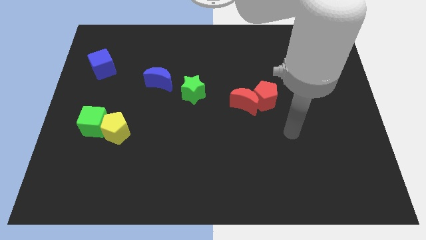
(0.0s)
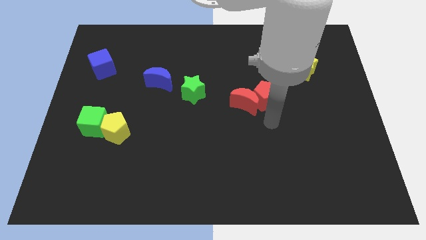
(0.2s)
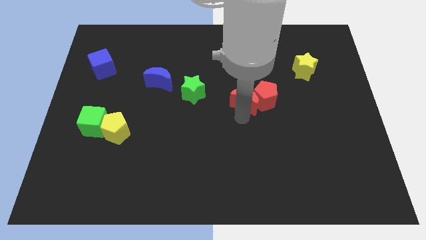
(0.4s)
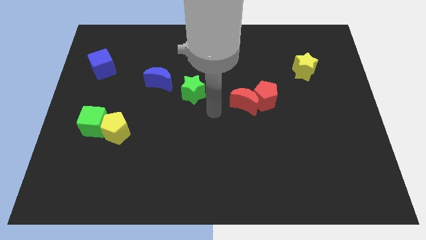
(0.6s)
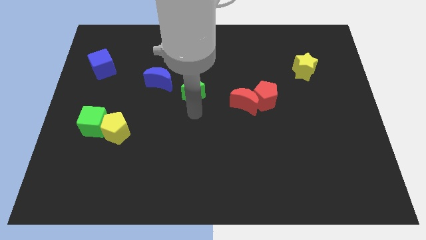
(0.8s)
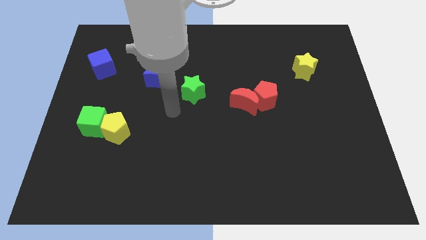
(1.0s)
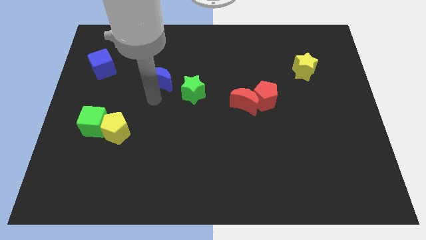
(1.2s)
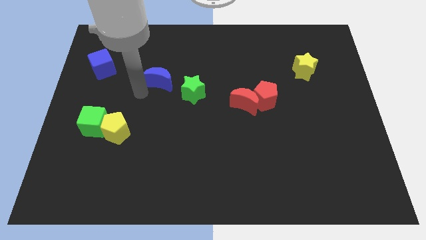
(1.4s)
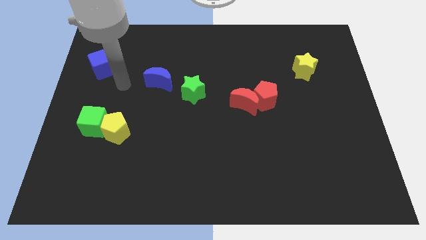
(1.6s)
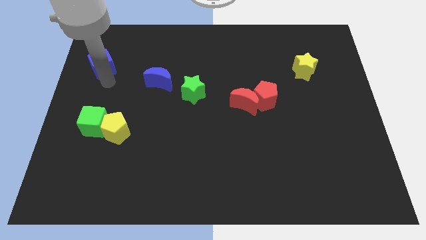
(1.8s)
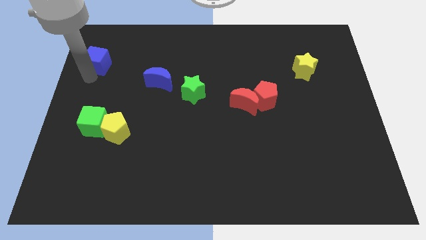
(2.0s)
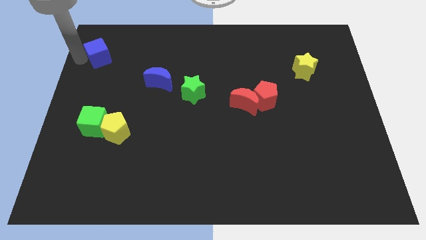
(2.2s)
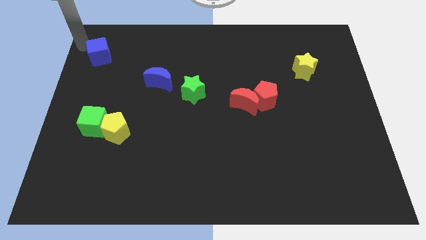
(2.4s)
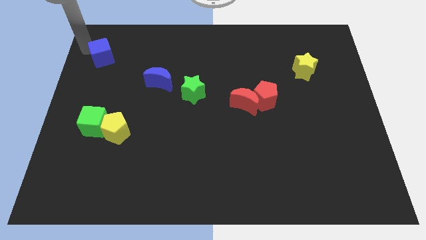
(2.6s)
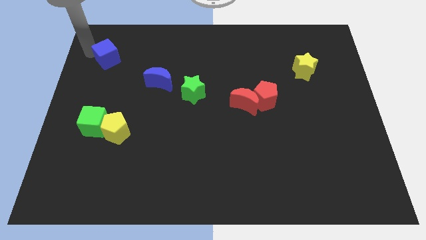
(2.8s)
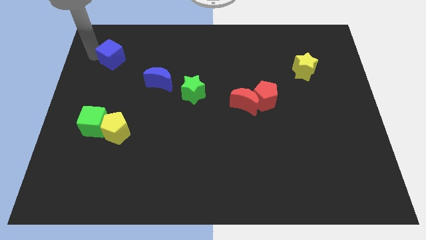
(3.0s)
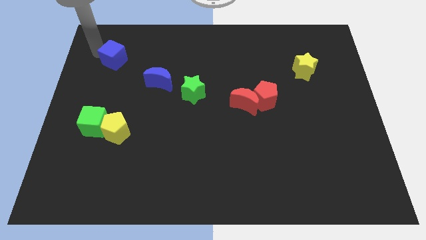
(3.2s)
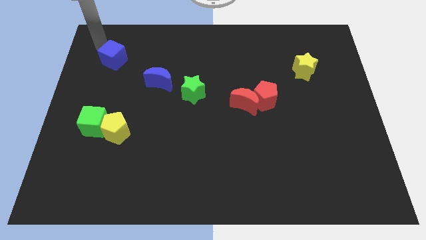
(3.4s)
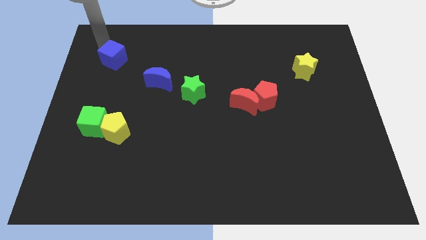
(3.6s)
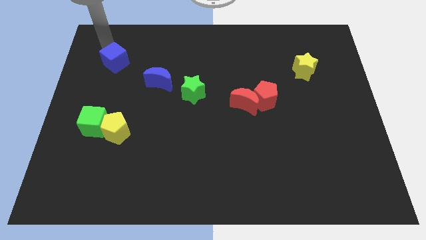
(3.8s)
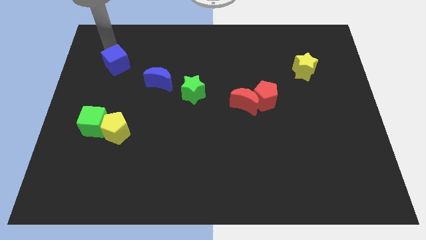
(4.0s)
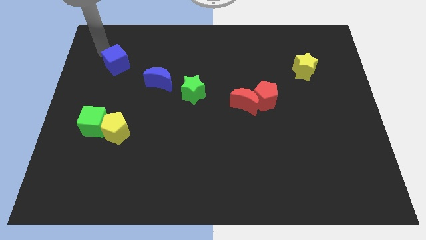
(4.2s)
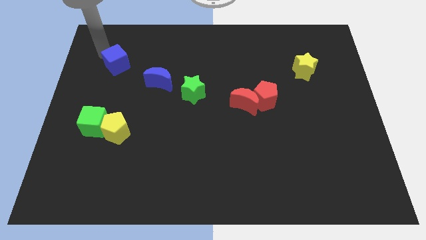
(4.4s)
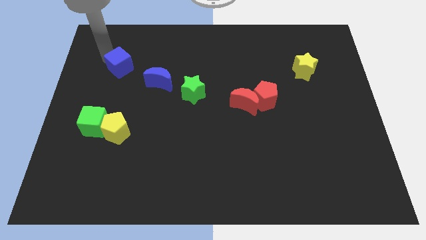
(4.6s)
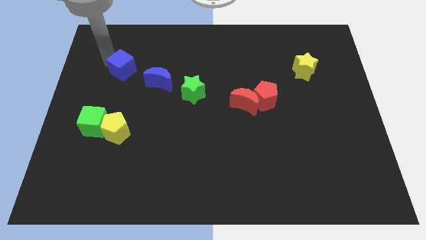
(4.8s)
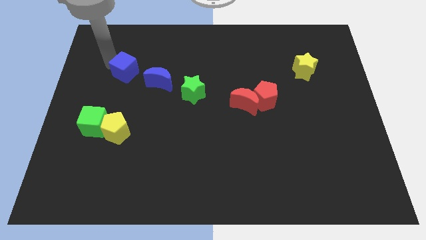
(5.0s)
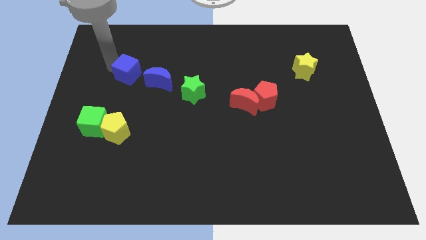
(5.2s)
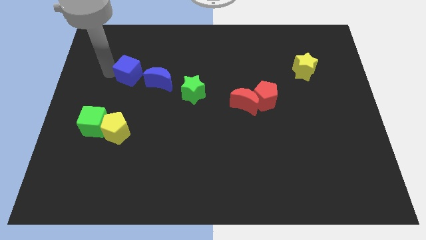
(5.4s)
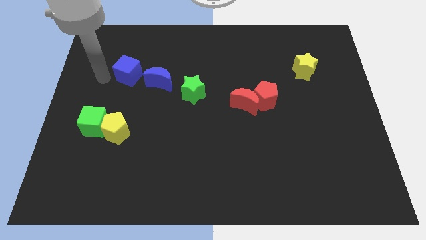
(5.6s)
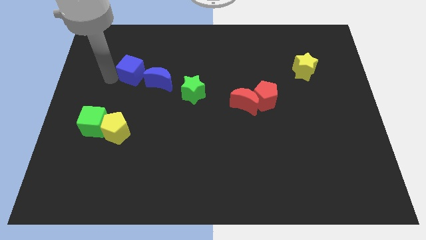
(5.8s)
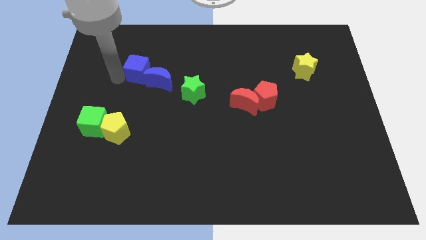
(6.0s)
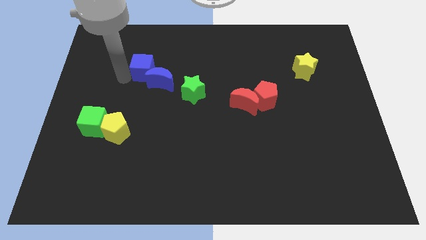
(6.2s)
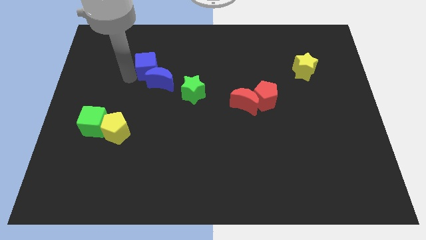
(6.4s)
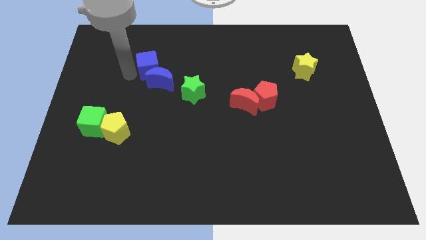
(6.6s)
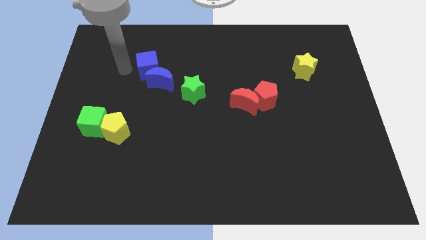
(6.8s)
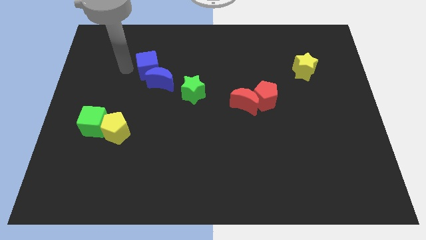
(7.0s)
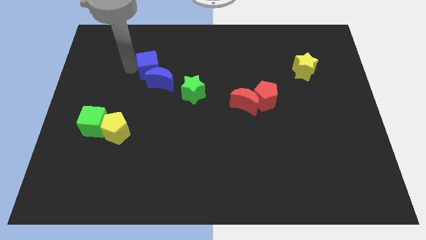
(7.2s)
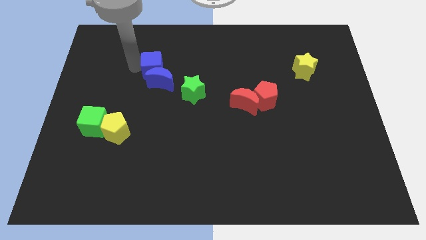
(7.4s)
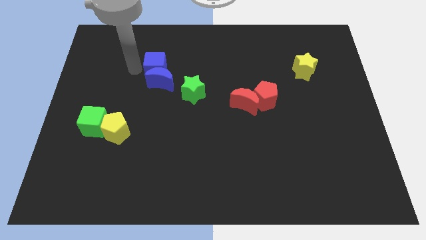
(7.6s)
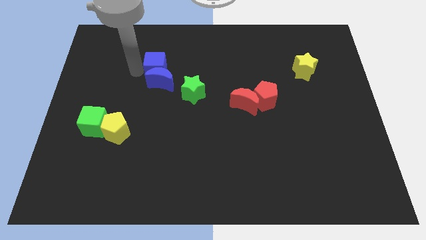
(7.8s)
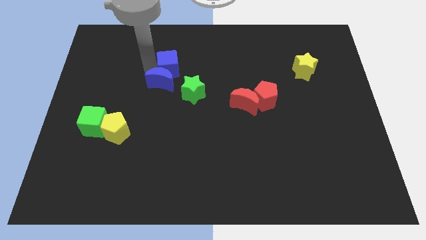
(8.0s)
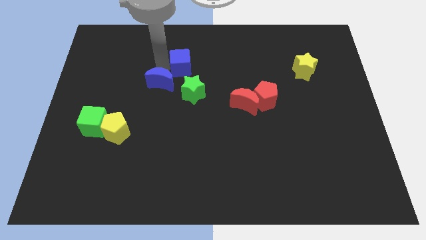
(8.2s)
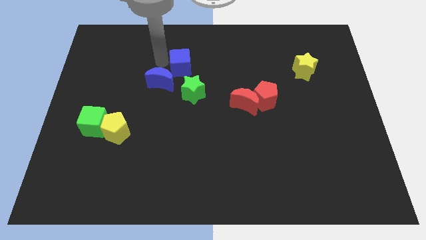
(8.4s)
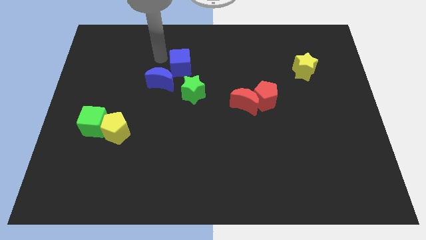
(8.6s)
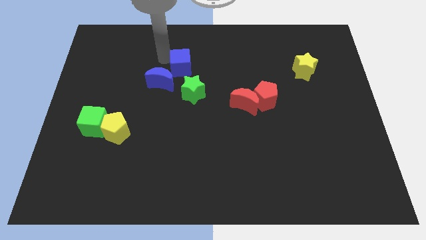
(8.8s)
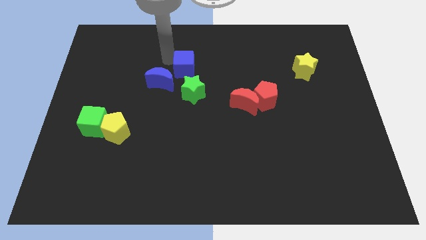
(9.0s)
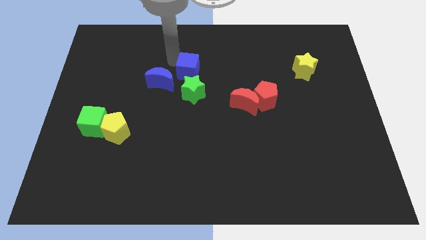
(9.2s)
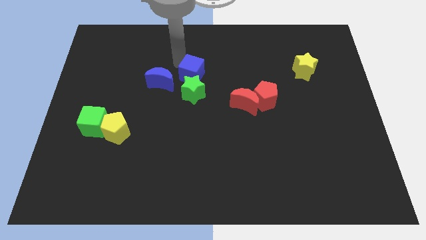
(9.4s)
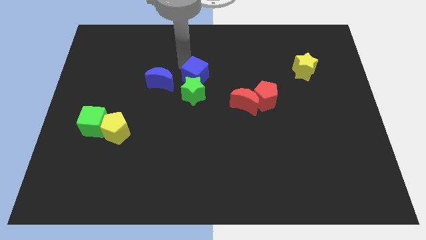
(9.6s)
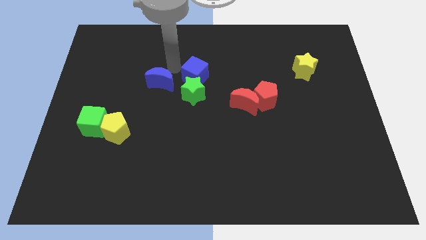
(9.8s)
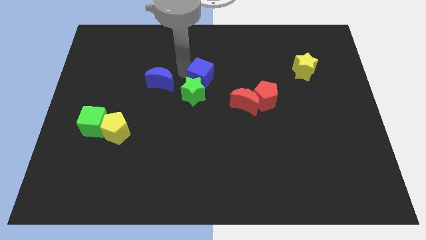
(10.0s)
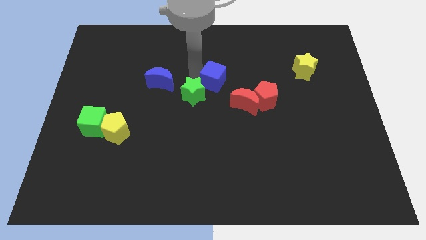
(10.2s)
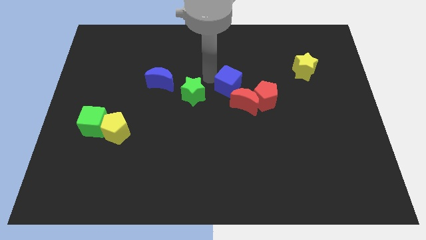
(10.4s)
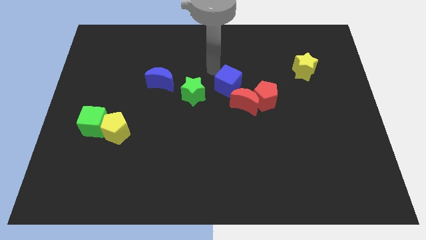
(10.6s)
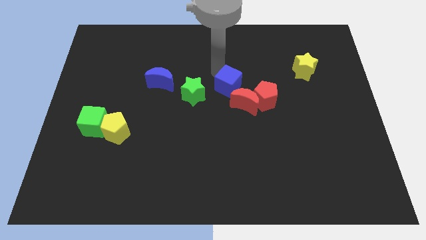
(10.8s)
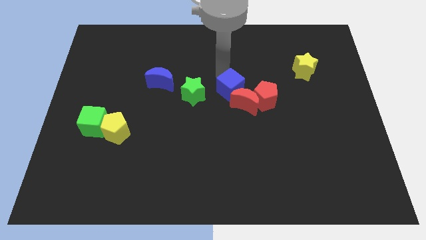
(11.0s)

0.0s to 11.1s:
slide the blue cube to the red moon
